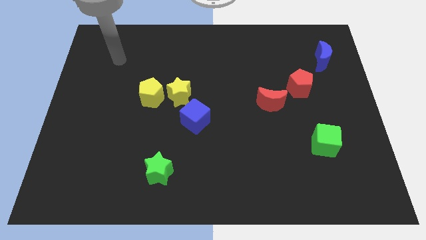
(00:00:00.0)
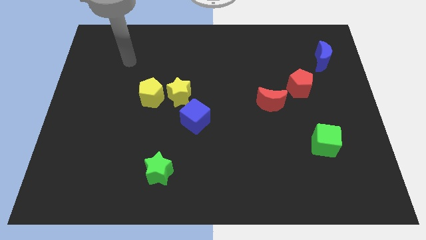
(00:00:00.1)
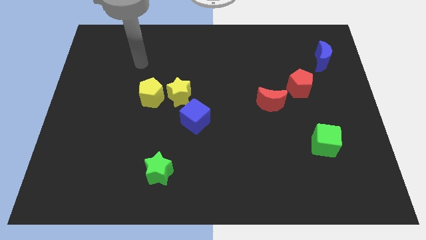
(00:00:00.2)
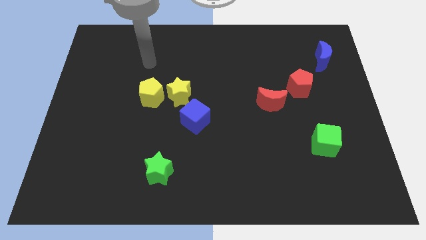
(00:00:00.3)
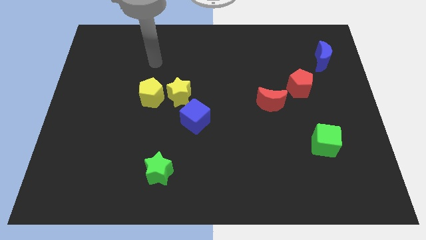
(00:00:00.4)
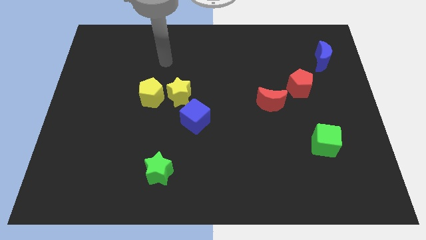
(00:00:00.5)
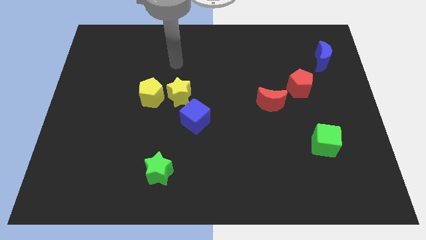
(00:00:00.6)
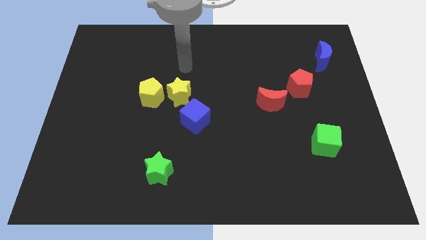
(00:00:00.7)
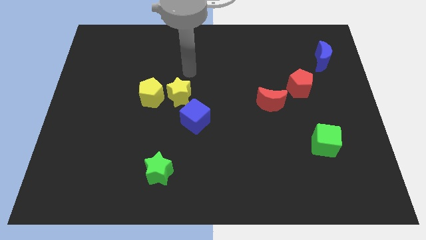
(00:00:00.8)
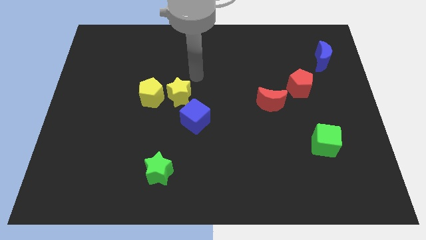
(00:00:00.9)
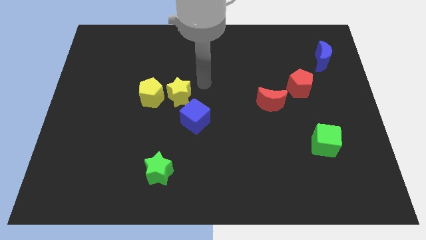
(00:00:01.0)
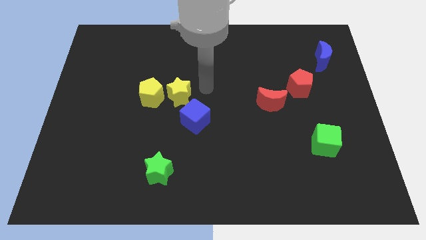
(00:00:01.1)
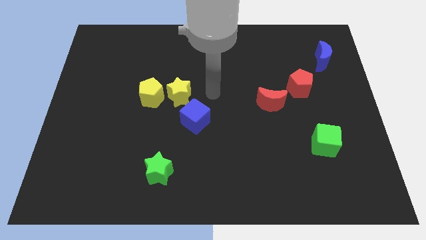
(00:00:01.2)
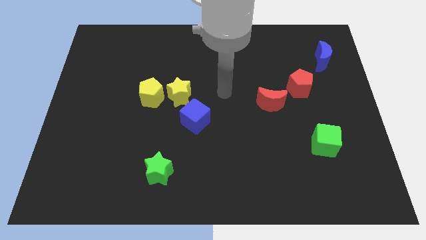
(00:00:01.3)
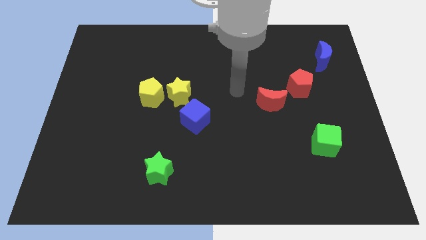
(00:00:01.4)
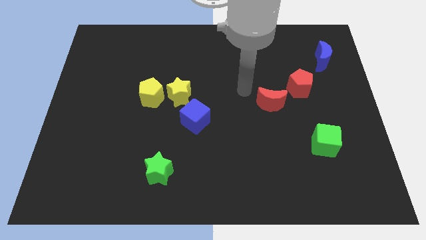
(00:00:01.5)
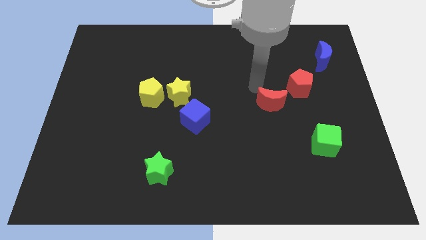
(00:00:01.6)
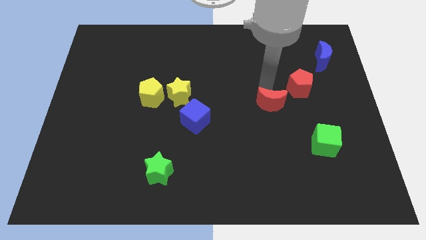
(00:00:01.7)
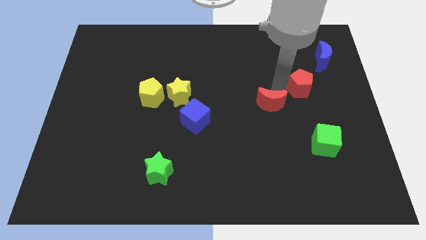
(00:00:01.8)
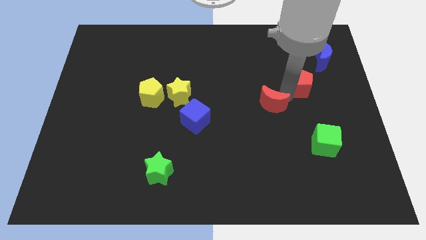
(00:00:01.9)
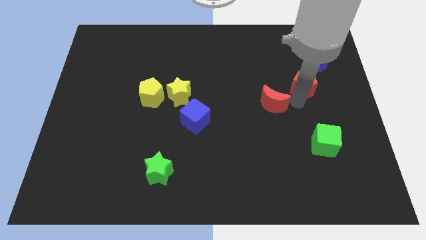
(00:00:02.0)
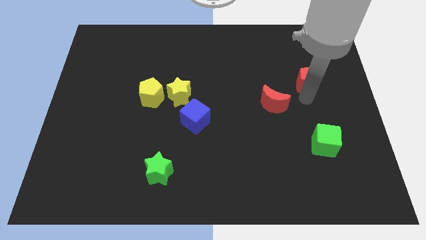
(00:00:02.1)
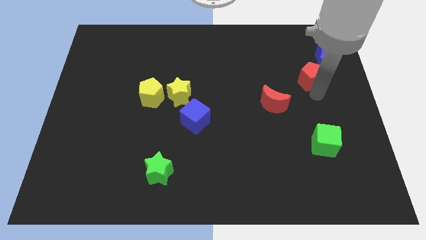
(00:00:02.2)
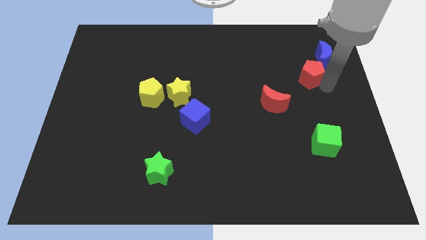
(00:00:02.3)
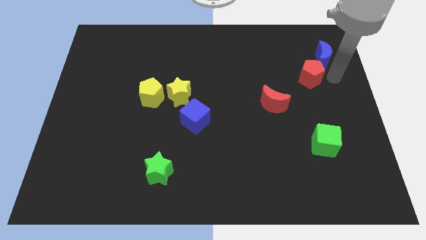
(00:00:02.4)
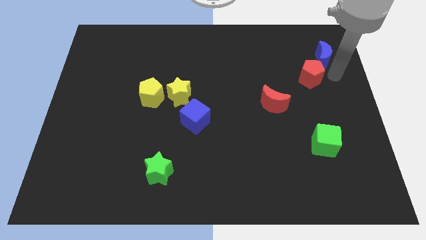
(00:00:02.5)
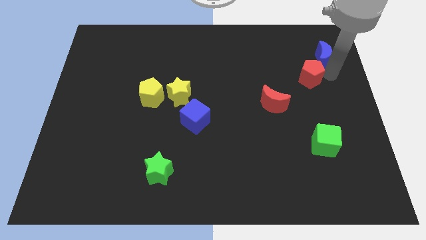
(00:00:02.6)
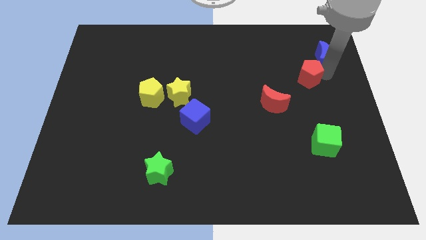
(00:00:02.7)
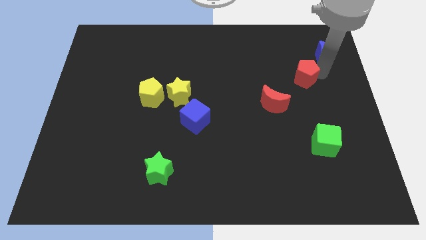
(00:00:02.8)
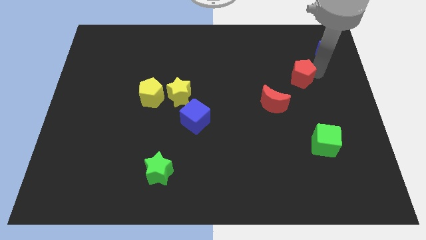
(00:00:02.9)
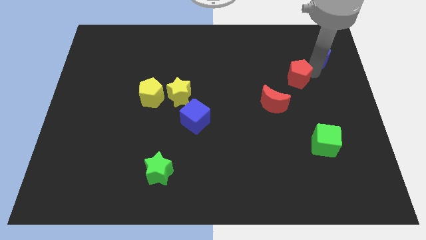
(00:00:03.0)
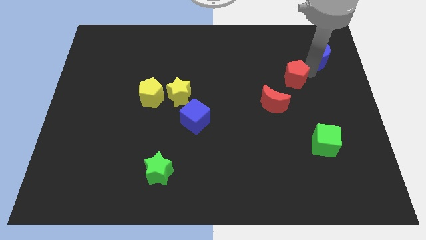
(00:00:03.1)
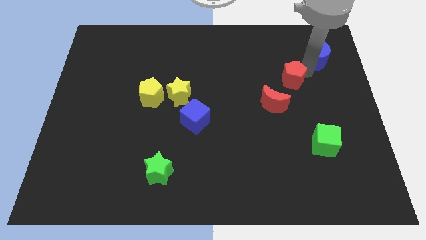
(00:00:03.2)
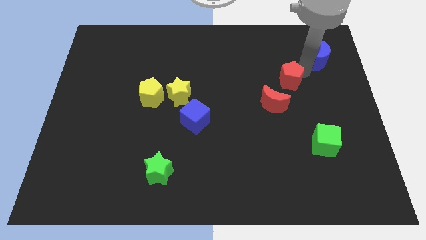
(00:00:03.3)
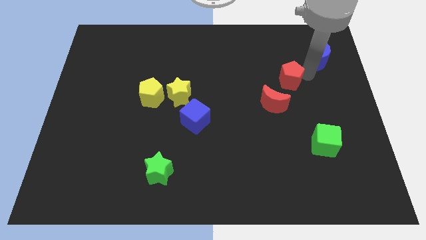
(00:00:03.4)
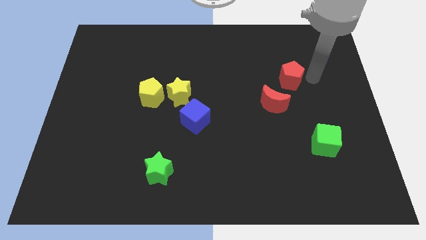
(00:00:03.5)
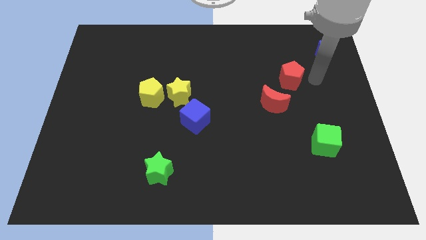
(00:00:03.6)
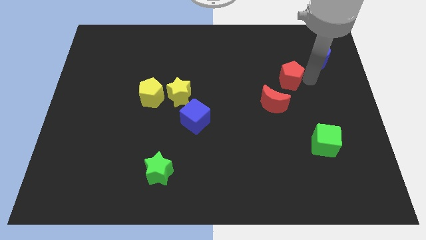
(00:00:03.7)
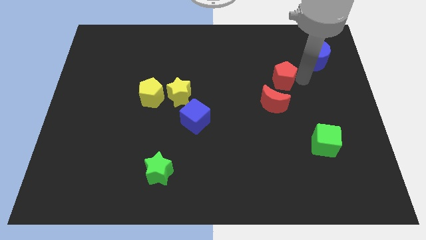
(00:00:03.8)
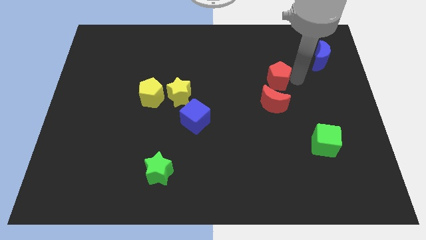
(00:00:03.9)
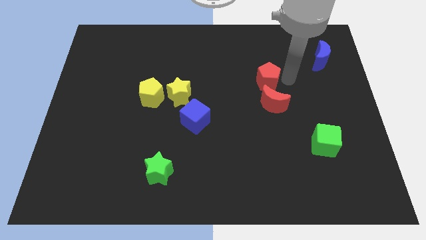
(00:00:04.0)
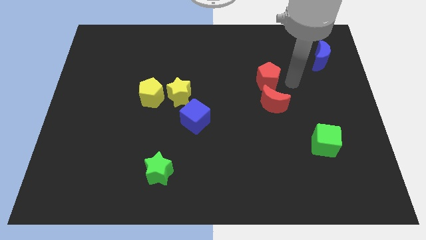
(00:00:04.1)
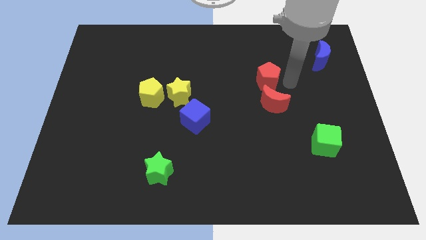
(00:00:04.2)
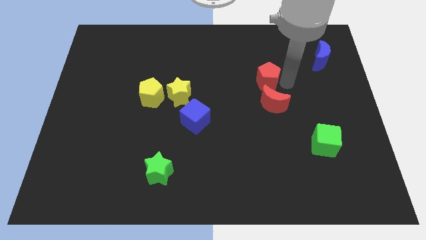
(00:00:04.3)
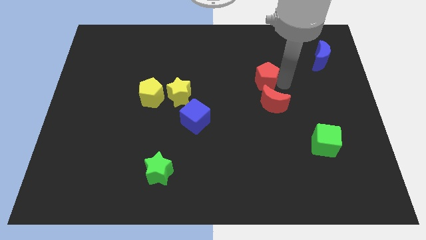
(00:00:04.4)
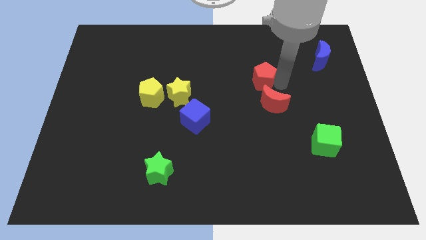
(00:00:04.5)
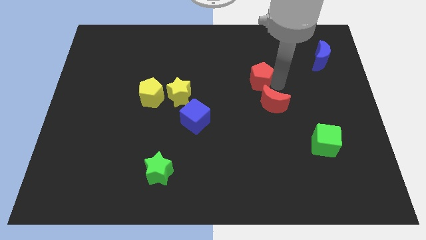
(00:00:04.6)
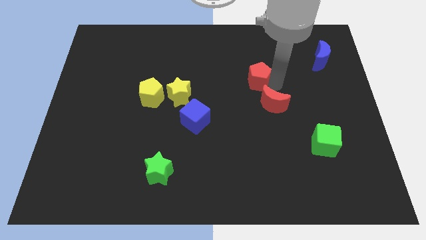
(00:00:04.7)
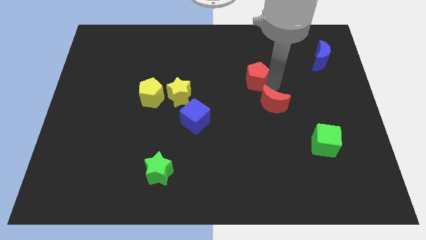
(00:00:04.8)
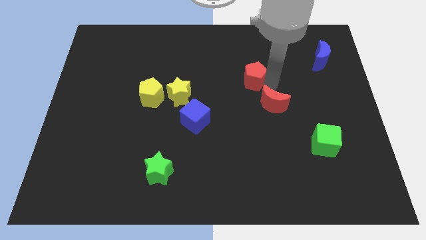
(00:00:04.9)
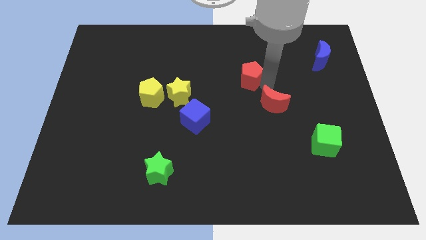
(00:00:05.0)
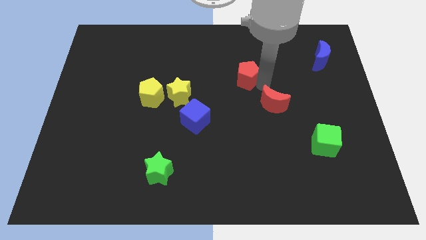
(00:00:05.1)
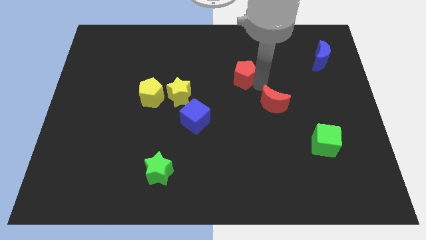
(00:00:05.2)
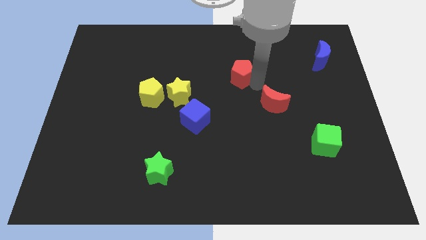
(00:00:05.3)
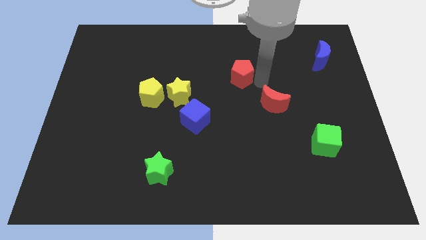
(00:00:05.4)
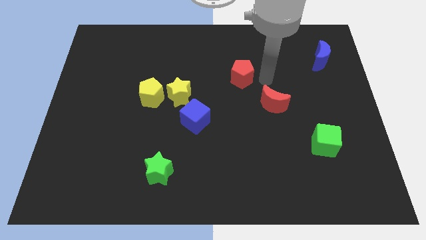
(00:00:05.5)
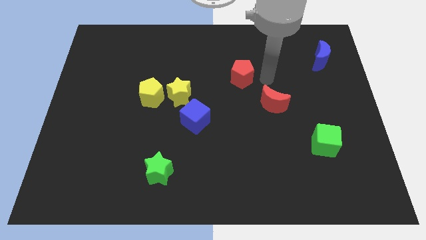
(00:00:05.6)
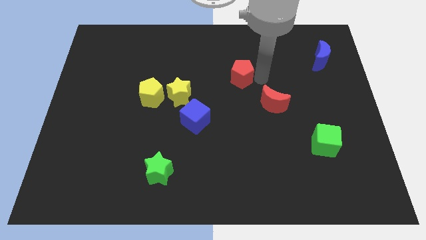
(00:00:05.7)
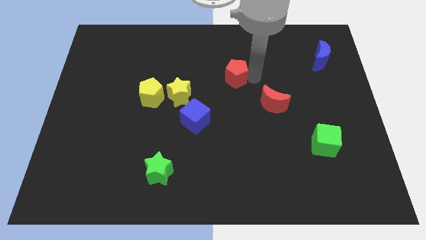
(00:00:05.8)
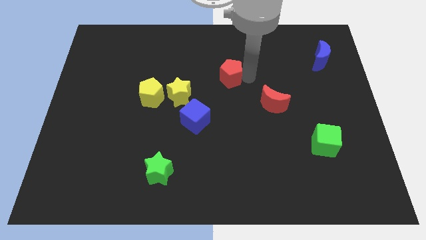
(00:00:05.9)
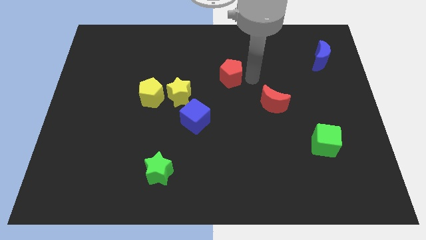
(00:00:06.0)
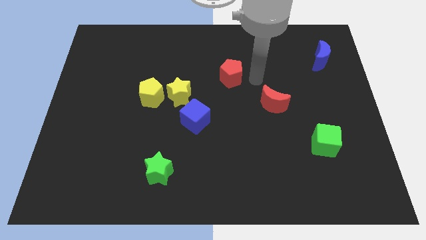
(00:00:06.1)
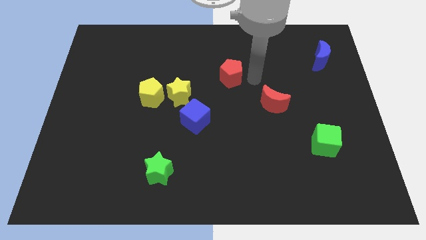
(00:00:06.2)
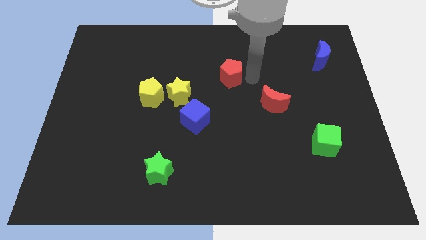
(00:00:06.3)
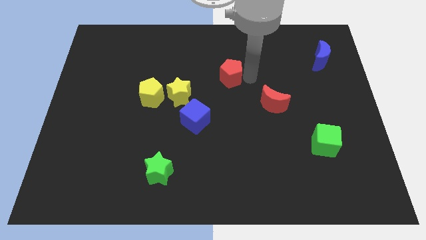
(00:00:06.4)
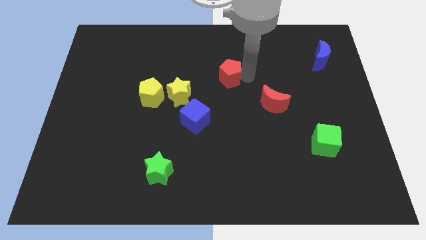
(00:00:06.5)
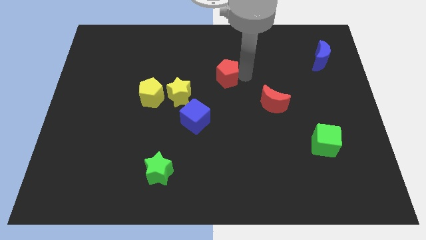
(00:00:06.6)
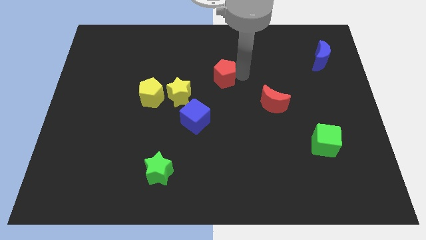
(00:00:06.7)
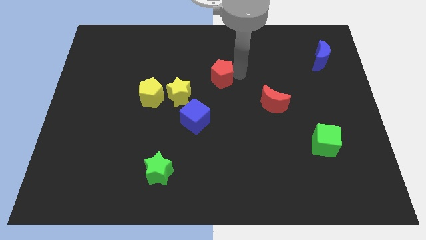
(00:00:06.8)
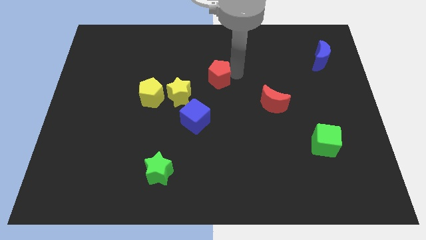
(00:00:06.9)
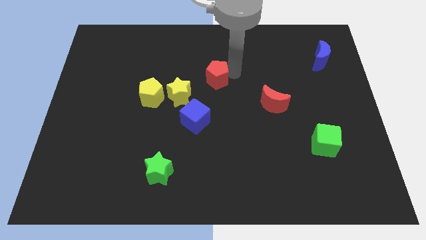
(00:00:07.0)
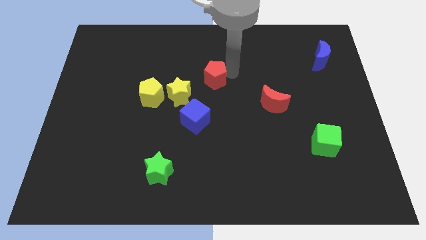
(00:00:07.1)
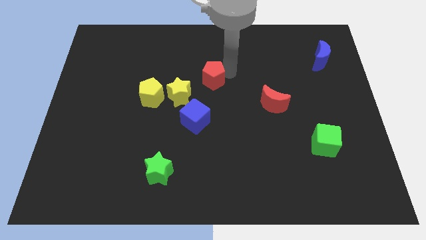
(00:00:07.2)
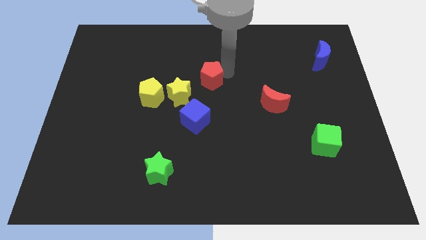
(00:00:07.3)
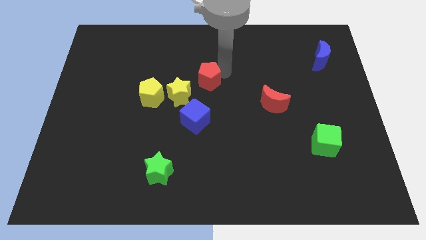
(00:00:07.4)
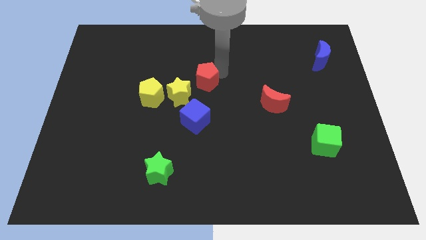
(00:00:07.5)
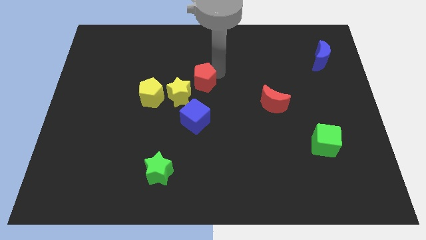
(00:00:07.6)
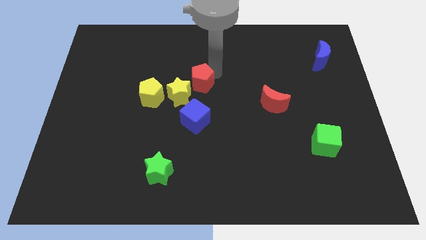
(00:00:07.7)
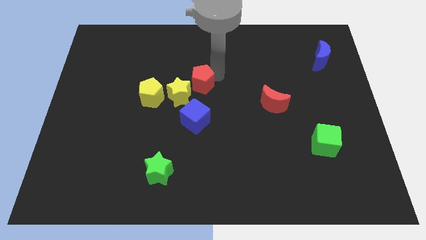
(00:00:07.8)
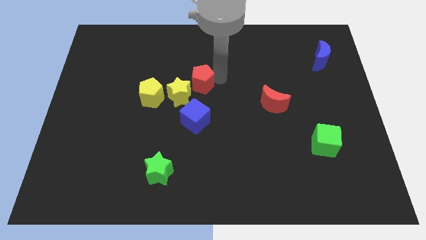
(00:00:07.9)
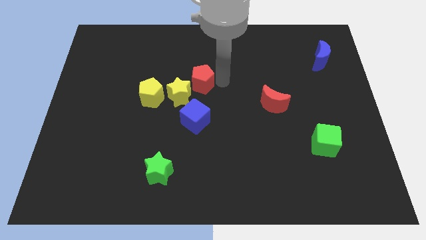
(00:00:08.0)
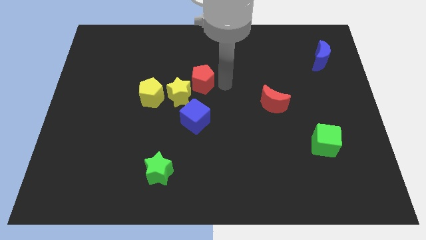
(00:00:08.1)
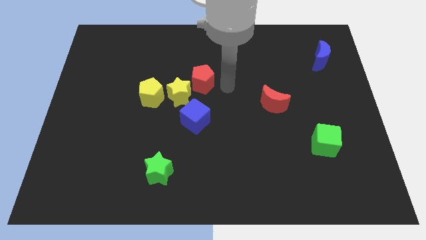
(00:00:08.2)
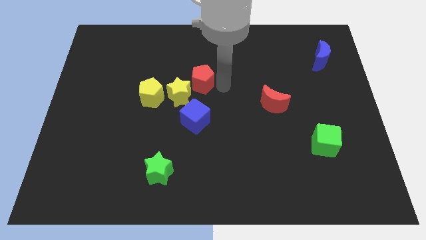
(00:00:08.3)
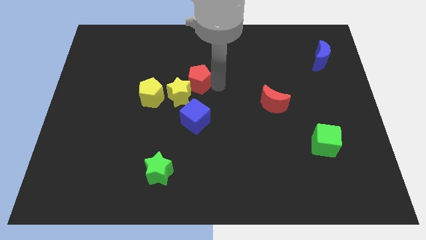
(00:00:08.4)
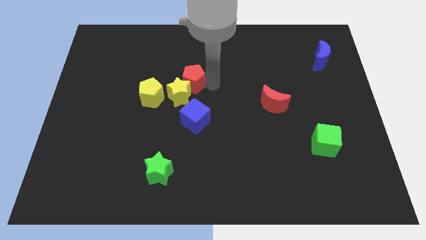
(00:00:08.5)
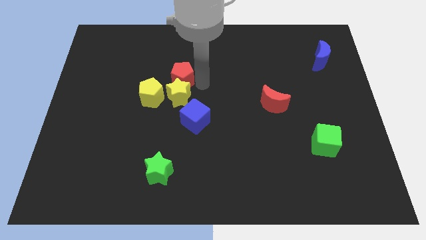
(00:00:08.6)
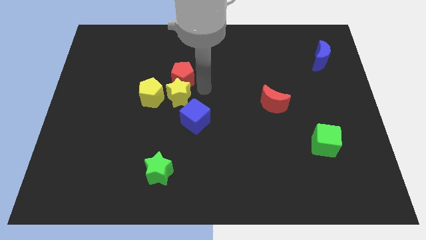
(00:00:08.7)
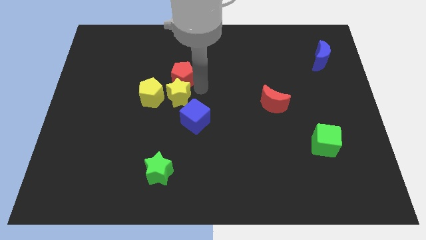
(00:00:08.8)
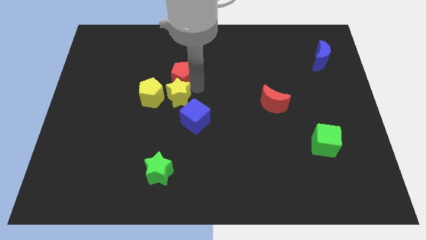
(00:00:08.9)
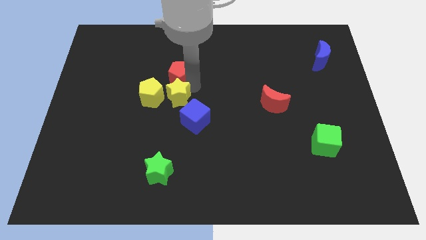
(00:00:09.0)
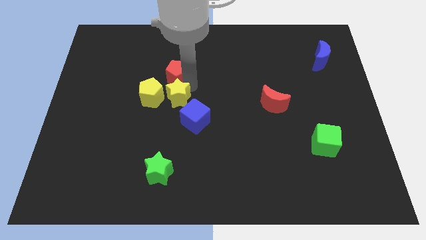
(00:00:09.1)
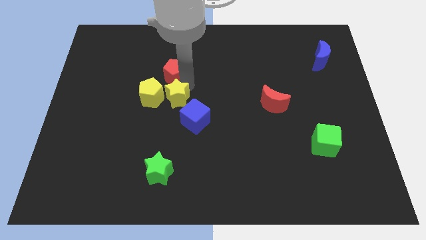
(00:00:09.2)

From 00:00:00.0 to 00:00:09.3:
move the red pentagon to the top side of the yellow pentagon
